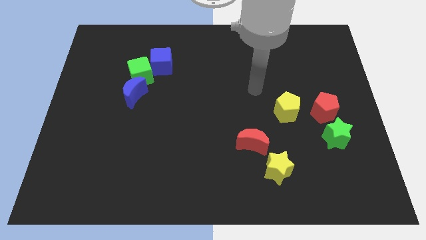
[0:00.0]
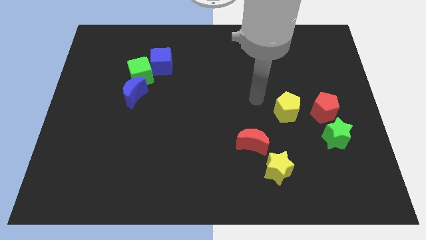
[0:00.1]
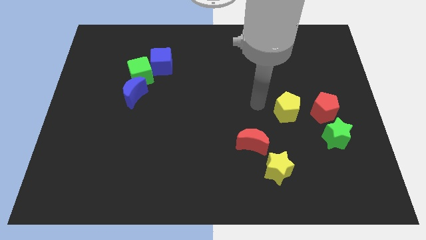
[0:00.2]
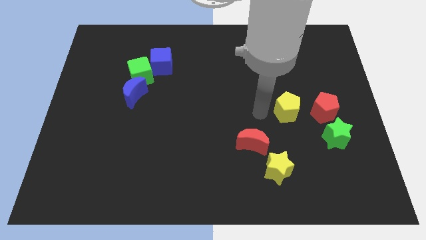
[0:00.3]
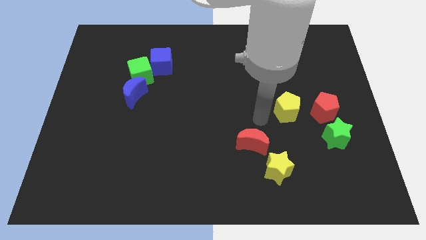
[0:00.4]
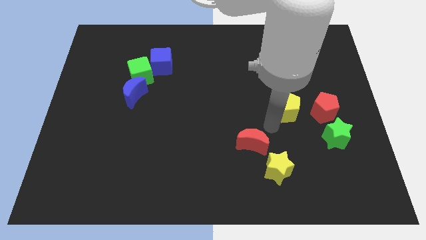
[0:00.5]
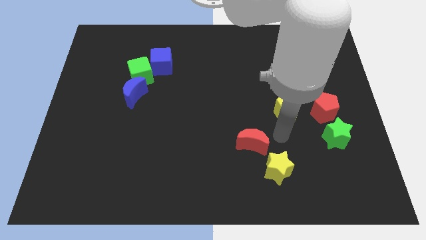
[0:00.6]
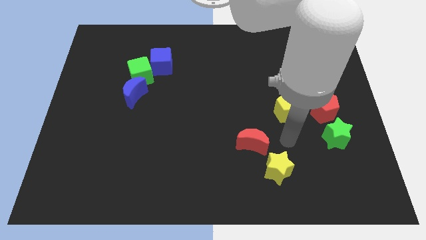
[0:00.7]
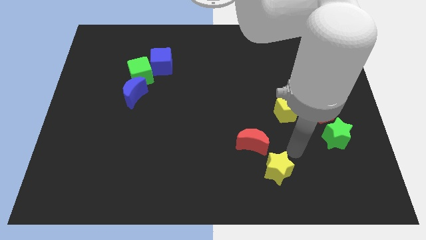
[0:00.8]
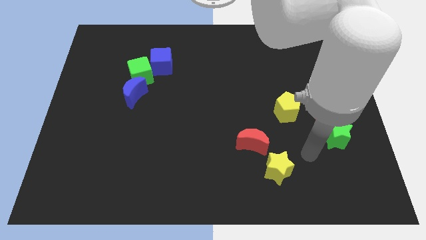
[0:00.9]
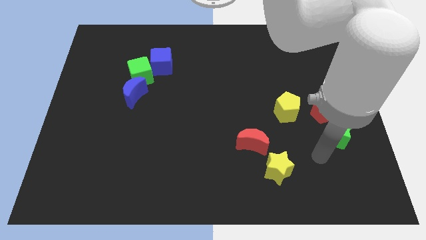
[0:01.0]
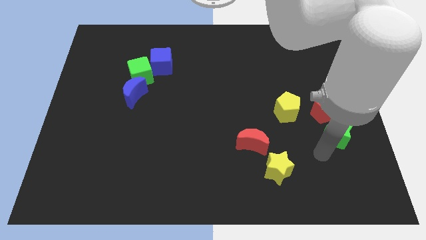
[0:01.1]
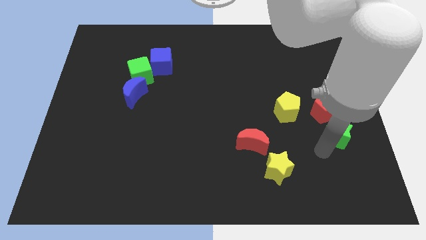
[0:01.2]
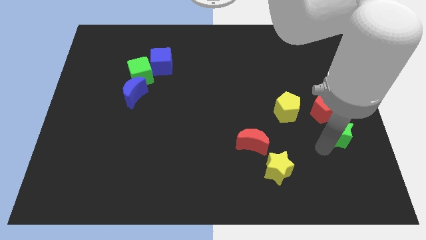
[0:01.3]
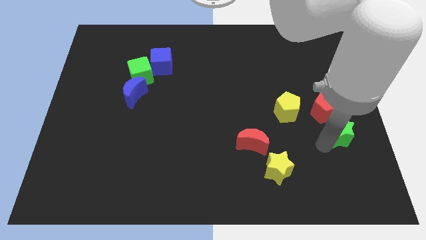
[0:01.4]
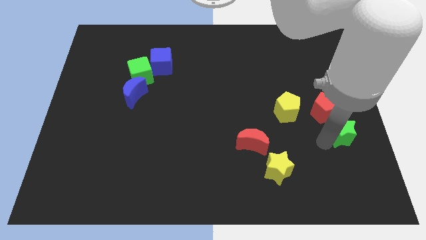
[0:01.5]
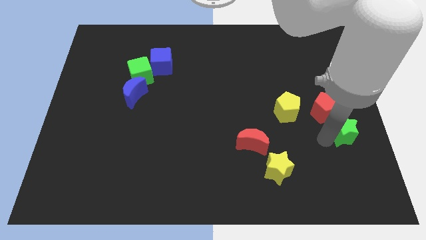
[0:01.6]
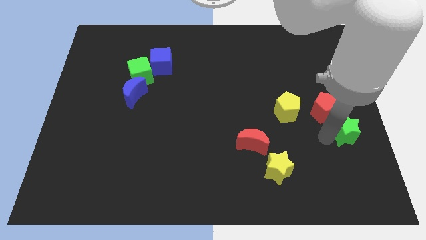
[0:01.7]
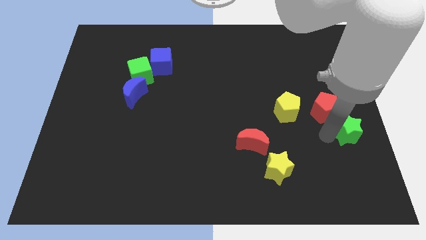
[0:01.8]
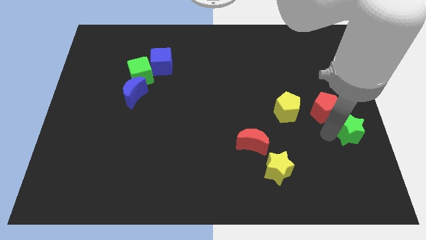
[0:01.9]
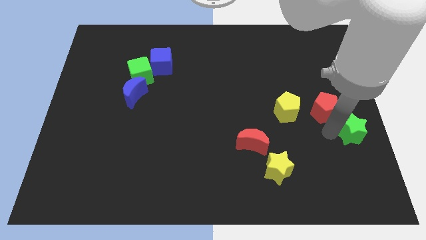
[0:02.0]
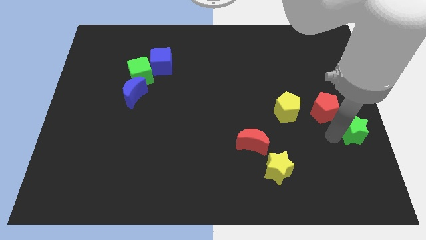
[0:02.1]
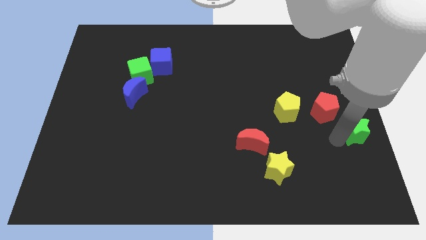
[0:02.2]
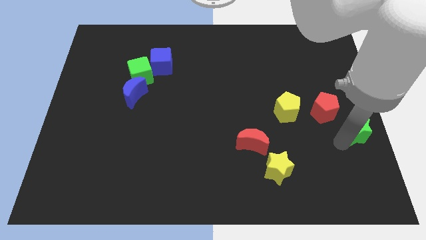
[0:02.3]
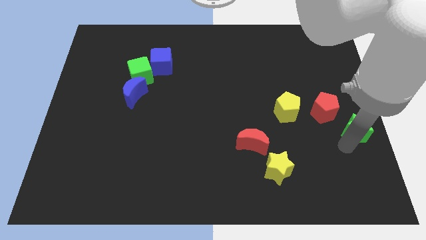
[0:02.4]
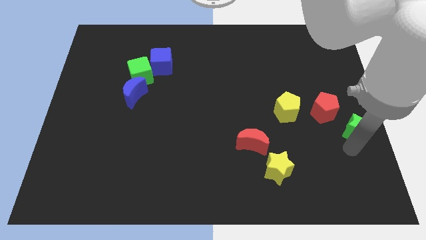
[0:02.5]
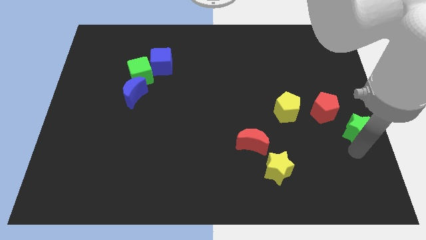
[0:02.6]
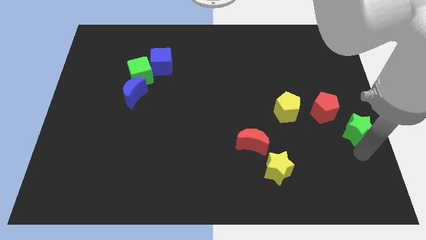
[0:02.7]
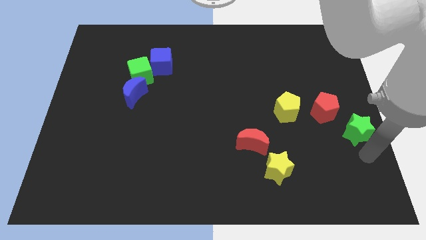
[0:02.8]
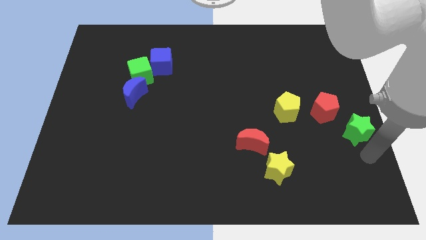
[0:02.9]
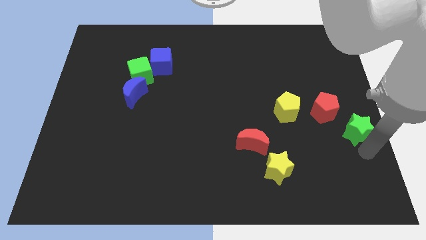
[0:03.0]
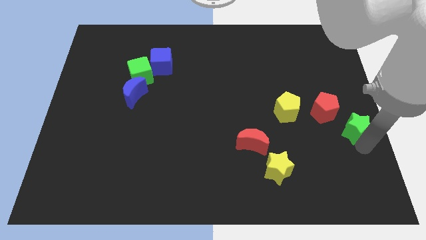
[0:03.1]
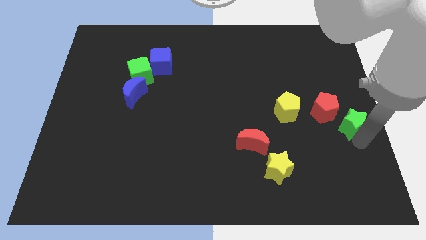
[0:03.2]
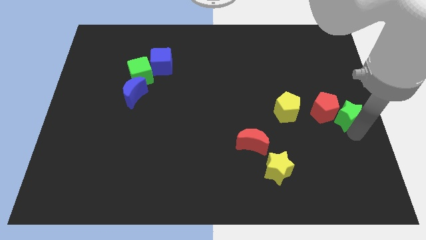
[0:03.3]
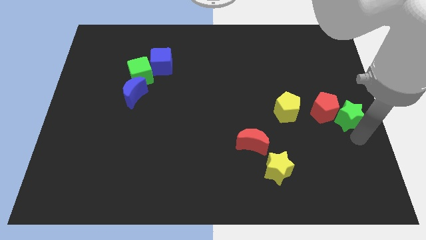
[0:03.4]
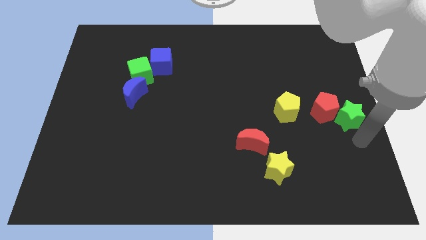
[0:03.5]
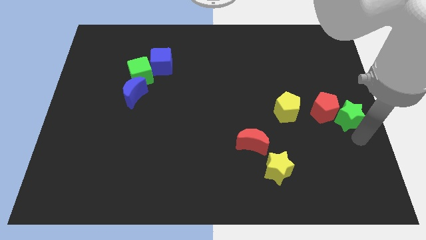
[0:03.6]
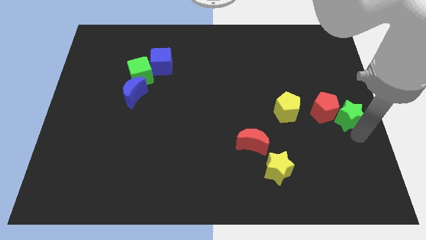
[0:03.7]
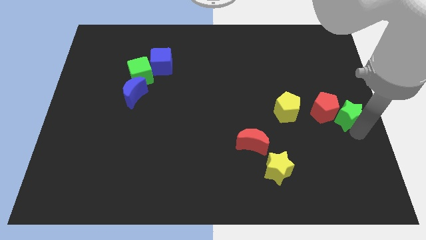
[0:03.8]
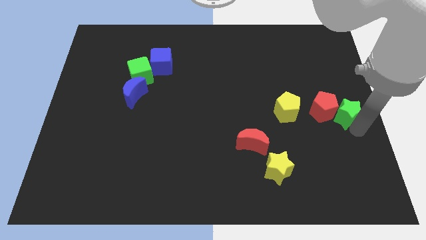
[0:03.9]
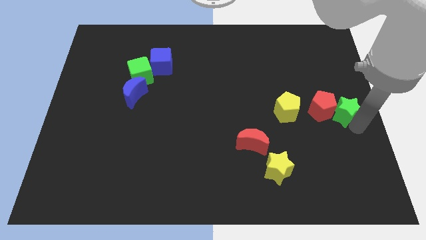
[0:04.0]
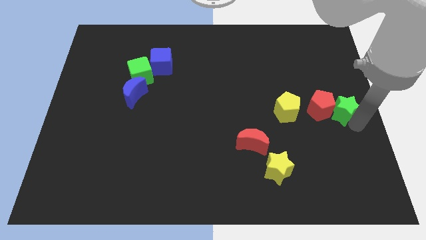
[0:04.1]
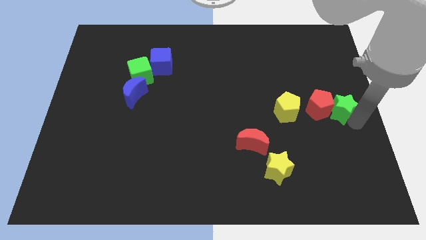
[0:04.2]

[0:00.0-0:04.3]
push the green star up somewhat

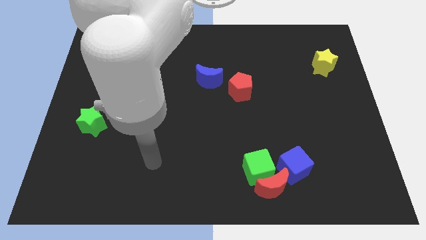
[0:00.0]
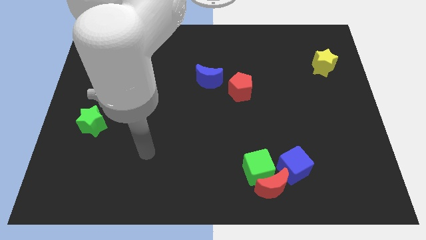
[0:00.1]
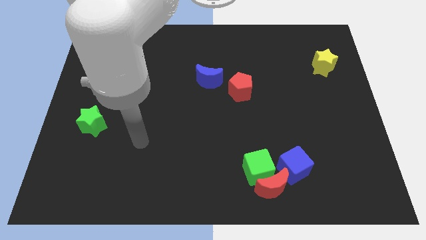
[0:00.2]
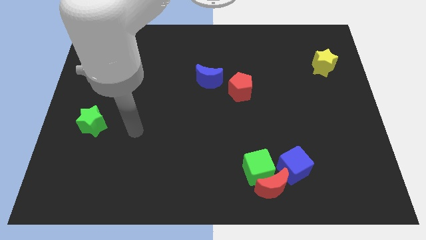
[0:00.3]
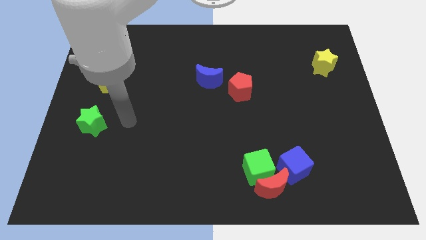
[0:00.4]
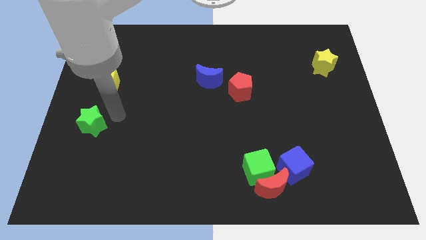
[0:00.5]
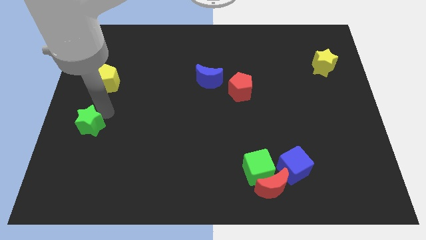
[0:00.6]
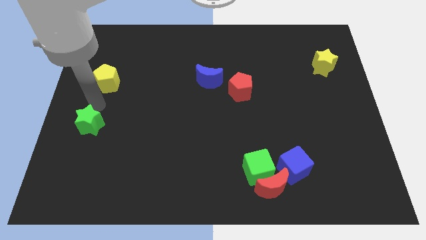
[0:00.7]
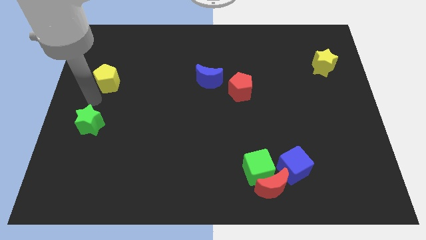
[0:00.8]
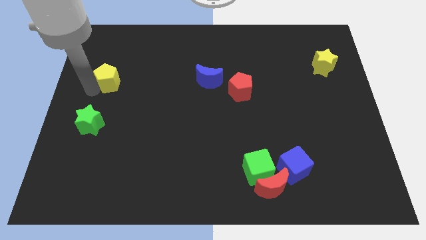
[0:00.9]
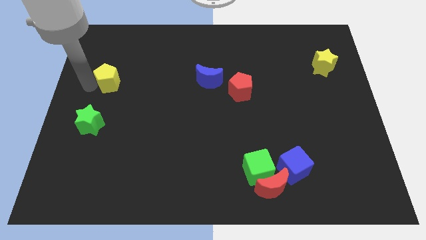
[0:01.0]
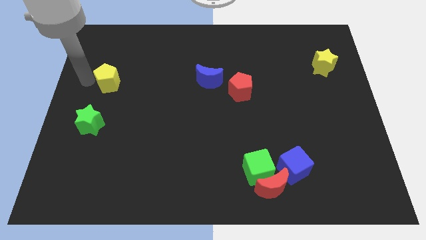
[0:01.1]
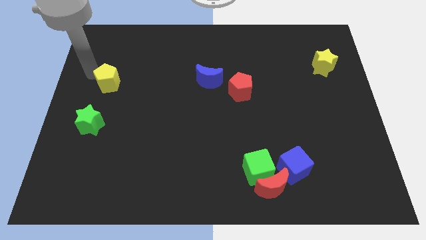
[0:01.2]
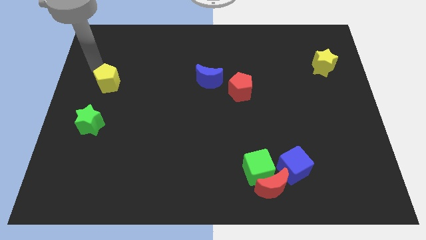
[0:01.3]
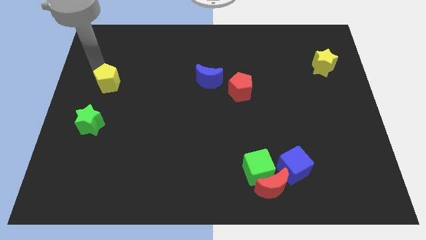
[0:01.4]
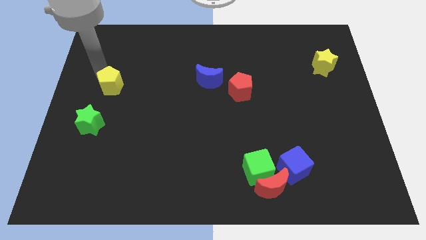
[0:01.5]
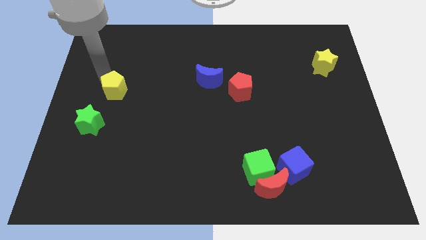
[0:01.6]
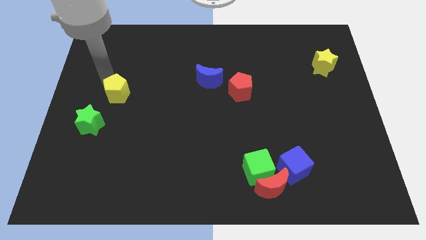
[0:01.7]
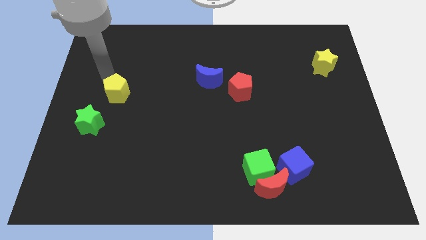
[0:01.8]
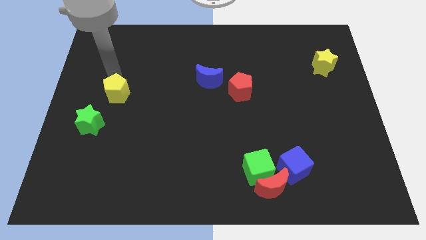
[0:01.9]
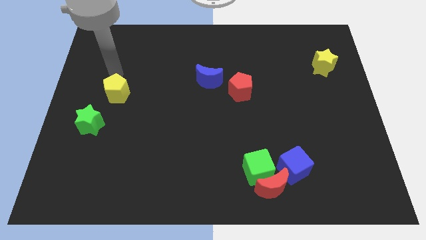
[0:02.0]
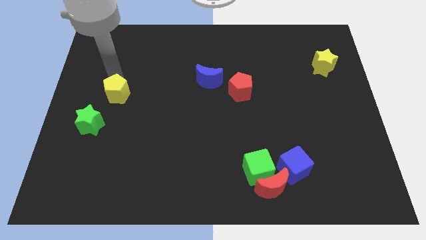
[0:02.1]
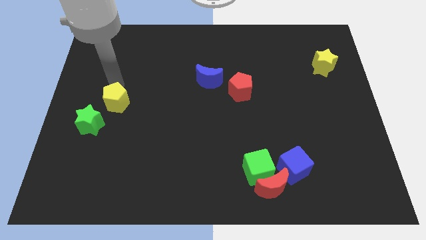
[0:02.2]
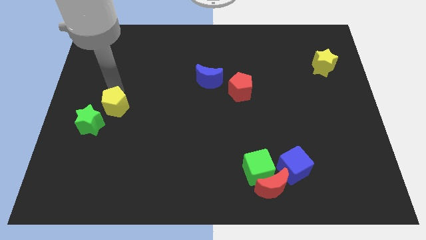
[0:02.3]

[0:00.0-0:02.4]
slightly push the yellow pentagon downwards

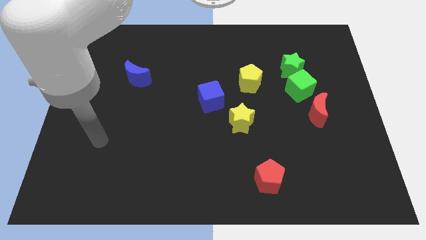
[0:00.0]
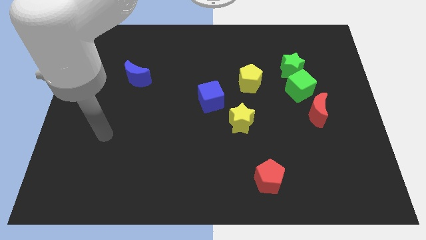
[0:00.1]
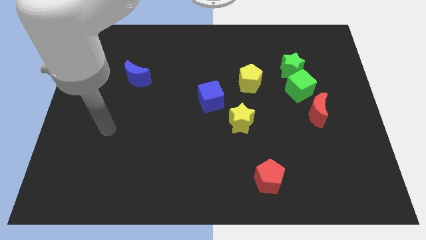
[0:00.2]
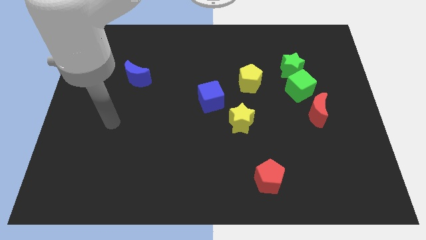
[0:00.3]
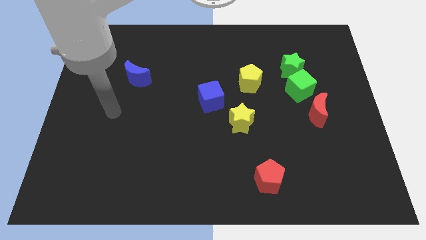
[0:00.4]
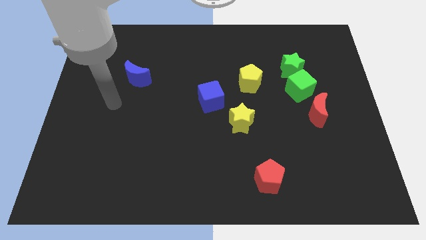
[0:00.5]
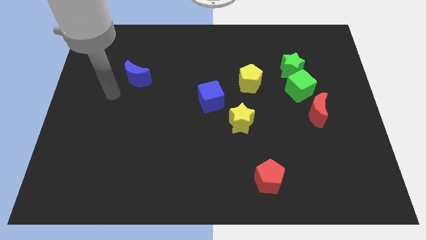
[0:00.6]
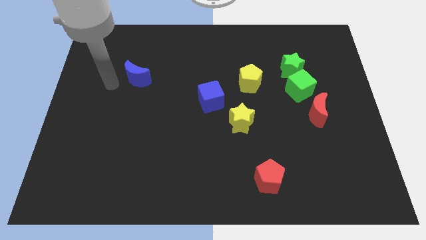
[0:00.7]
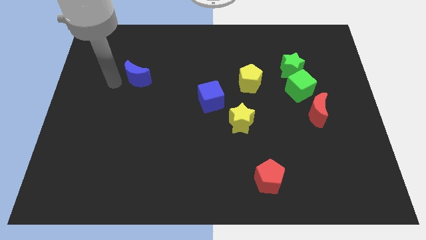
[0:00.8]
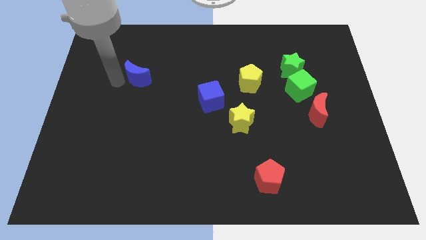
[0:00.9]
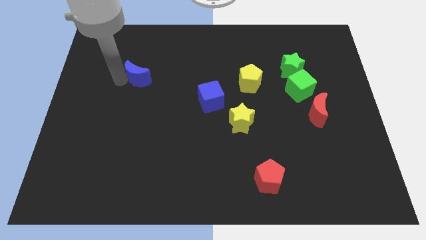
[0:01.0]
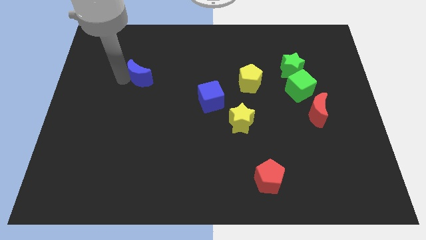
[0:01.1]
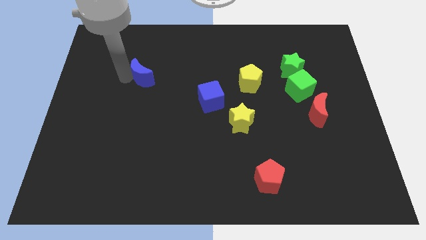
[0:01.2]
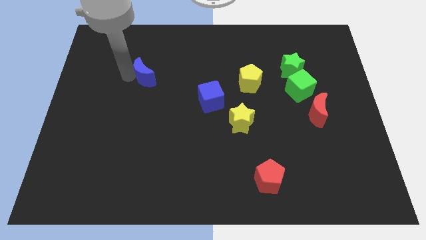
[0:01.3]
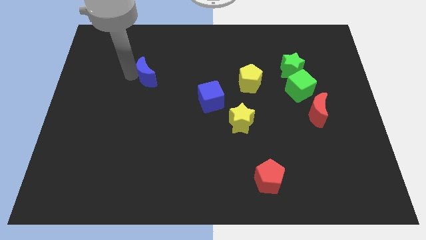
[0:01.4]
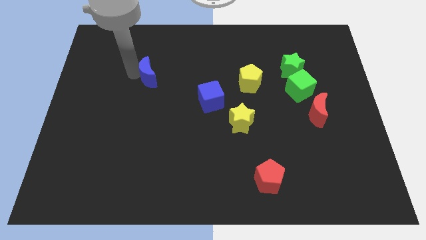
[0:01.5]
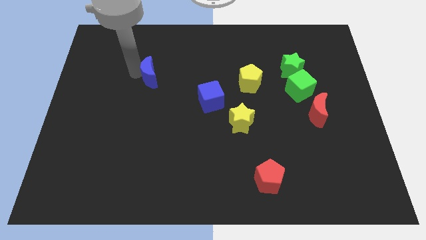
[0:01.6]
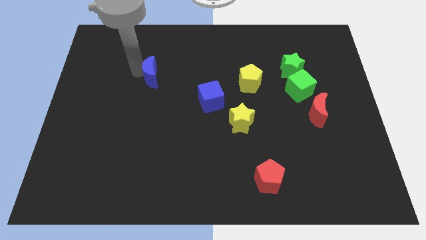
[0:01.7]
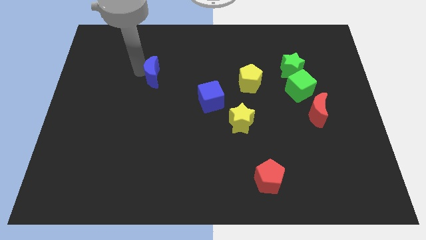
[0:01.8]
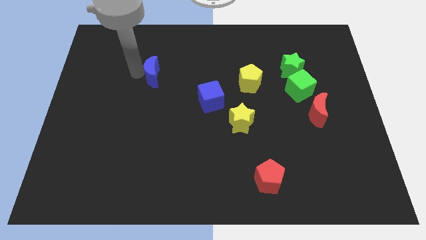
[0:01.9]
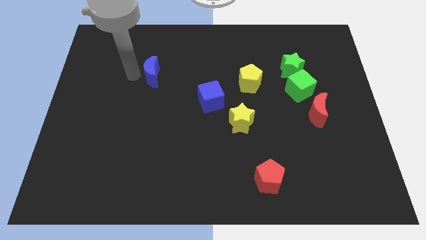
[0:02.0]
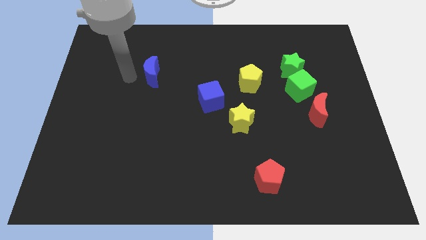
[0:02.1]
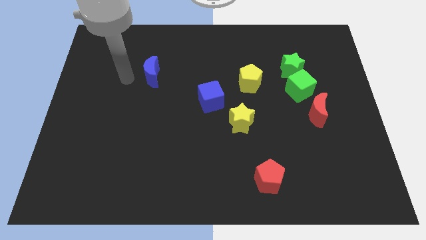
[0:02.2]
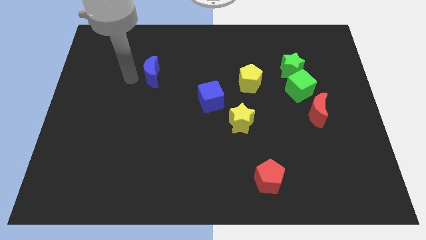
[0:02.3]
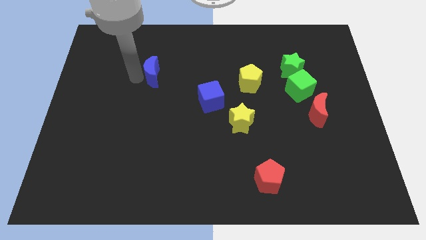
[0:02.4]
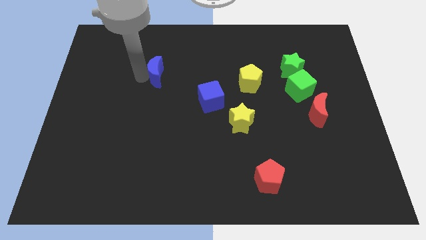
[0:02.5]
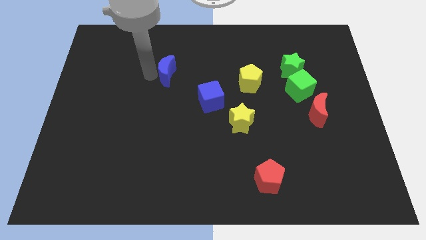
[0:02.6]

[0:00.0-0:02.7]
slide the blue moon to the right a bit
